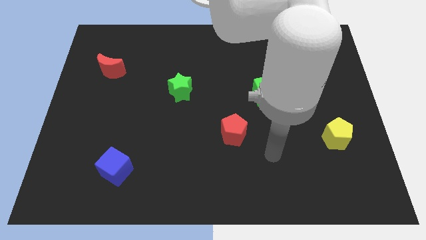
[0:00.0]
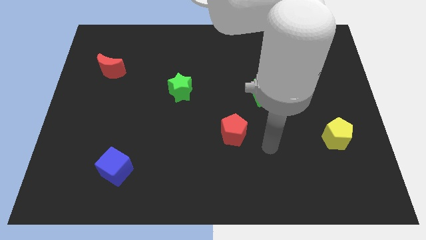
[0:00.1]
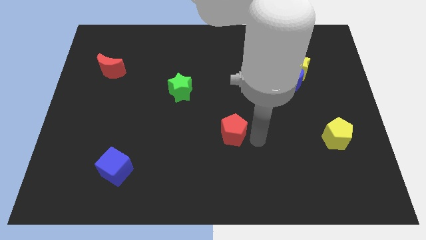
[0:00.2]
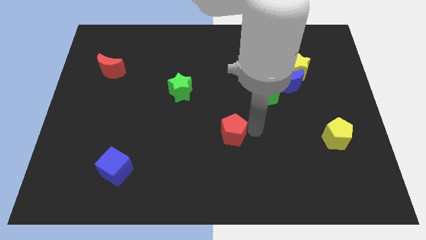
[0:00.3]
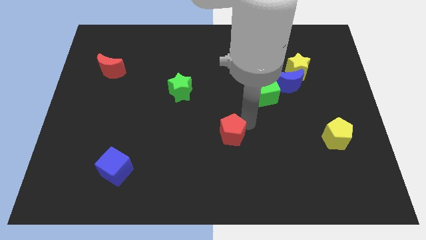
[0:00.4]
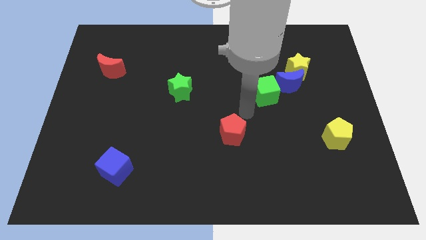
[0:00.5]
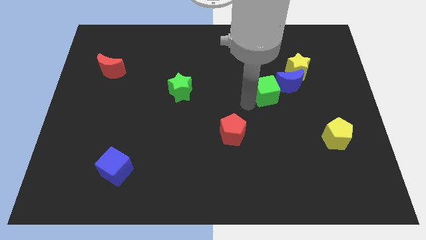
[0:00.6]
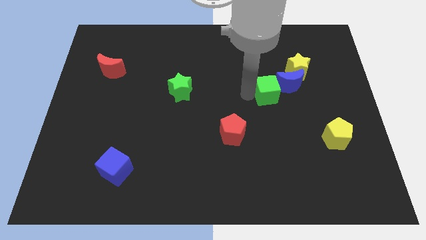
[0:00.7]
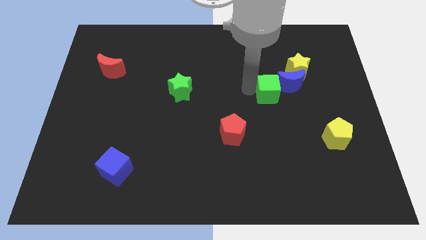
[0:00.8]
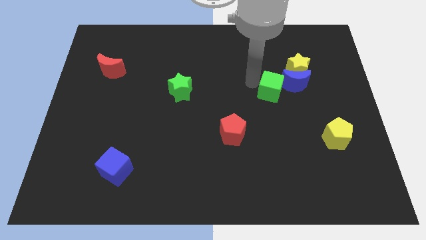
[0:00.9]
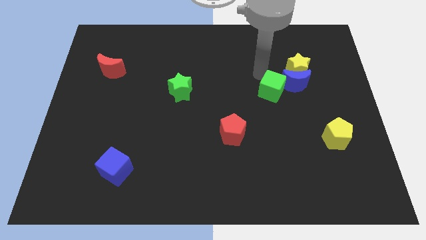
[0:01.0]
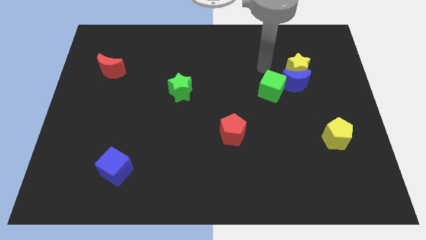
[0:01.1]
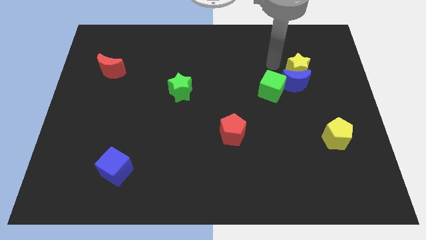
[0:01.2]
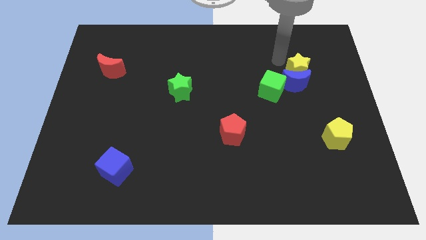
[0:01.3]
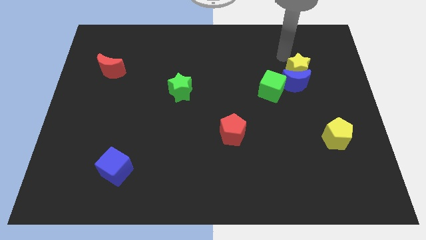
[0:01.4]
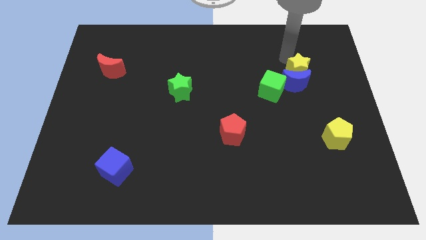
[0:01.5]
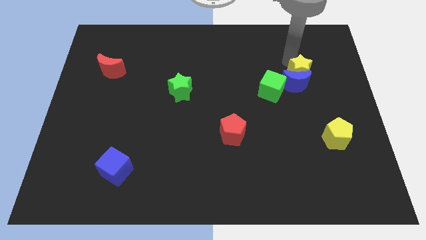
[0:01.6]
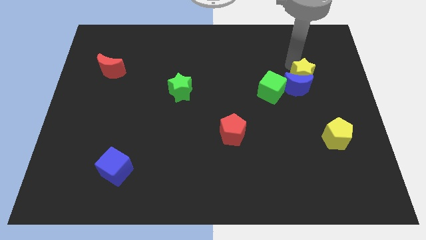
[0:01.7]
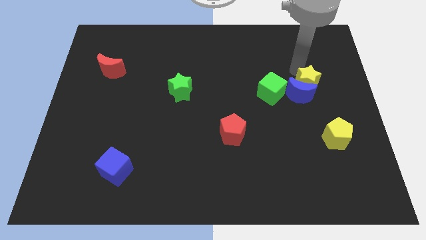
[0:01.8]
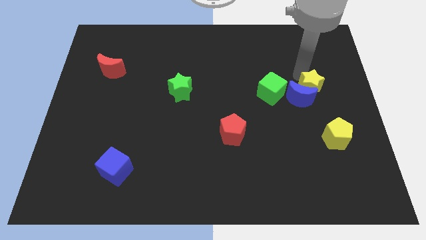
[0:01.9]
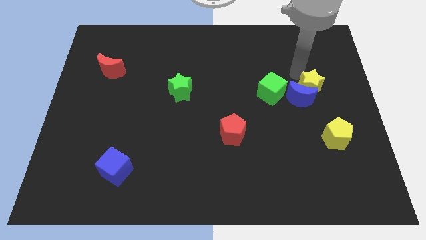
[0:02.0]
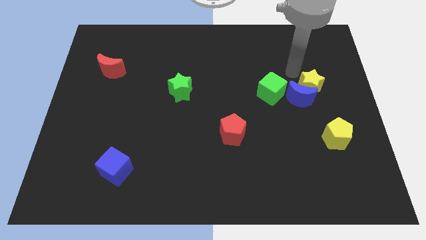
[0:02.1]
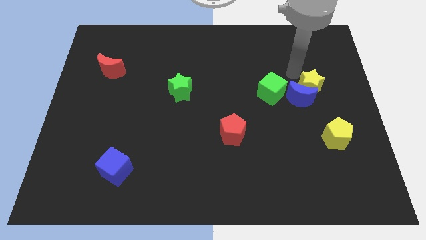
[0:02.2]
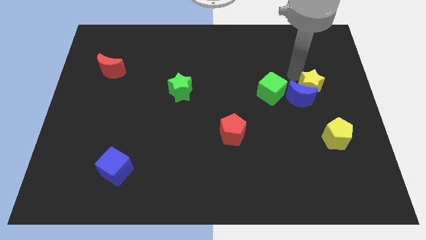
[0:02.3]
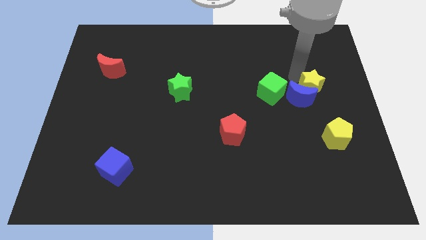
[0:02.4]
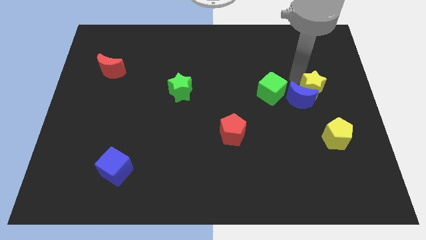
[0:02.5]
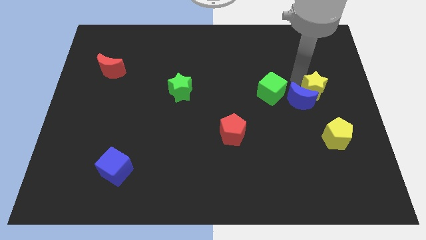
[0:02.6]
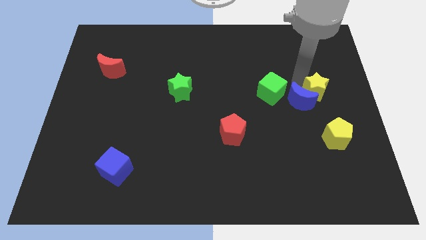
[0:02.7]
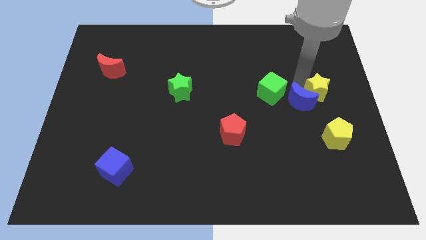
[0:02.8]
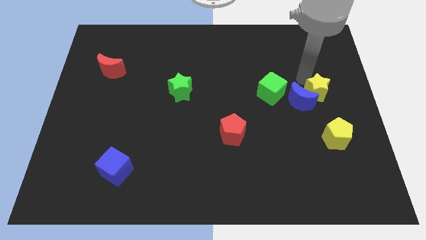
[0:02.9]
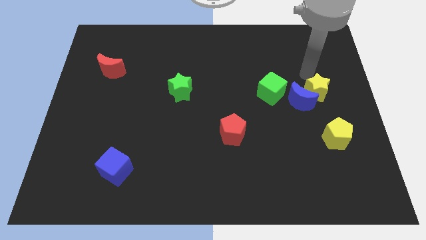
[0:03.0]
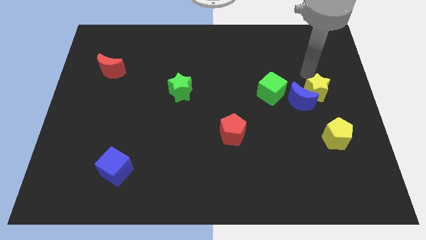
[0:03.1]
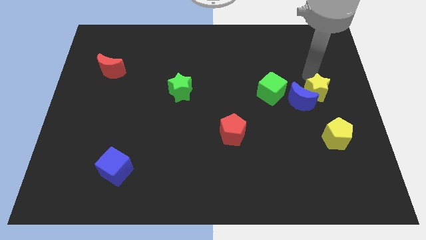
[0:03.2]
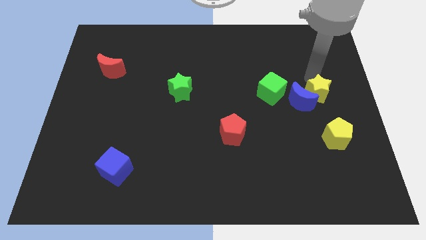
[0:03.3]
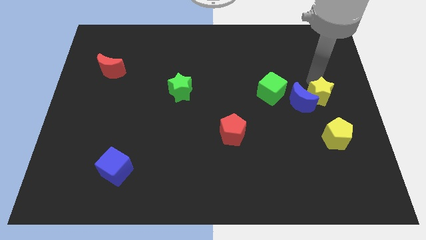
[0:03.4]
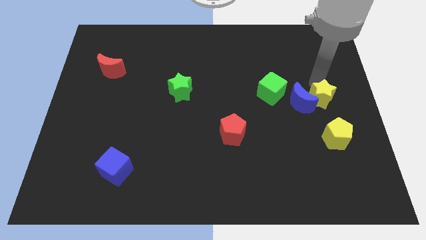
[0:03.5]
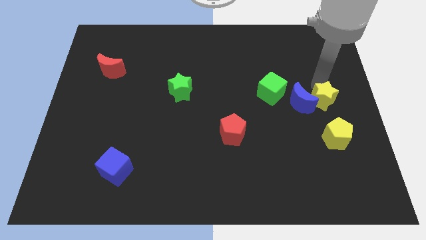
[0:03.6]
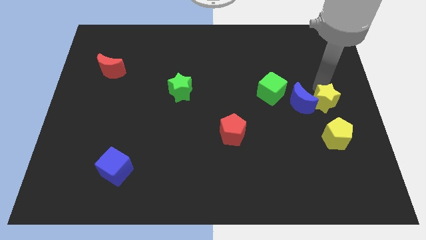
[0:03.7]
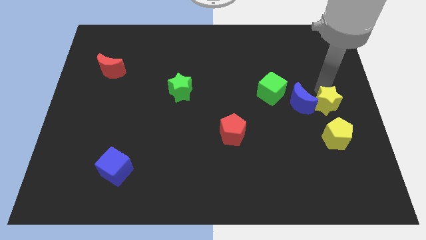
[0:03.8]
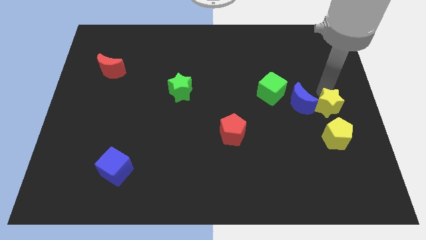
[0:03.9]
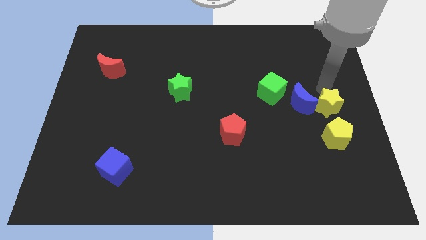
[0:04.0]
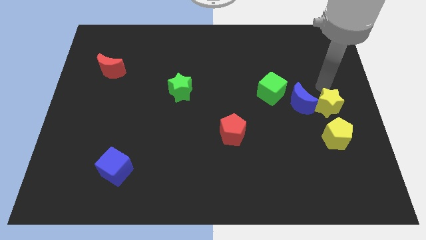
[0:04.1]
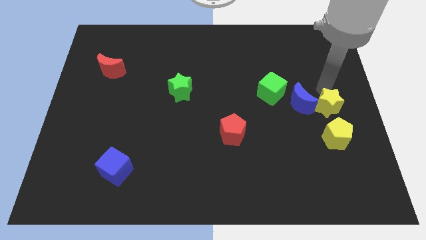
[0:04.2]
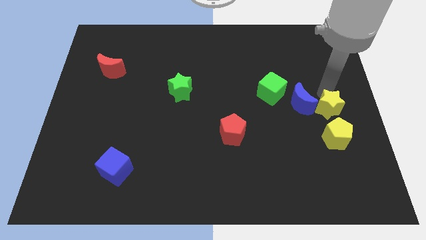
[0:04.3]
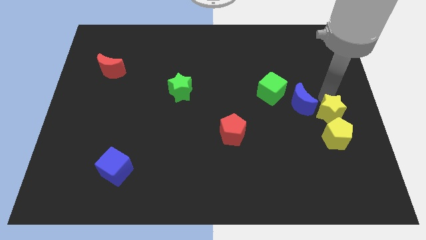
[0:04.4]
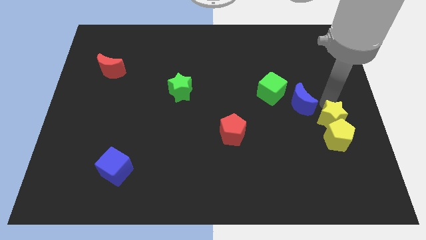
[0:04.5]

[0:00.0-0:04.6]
put the yellow star close to the yellow pentagon

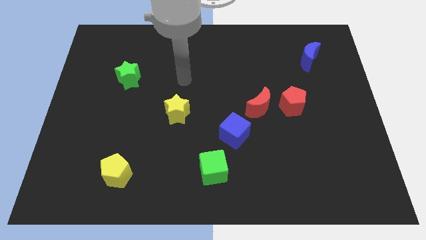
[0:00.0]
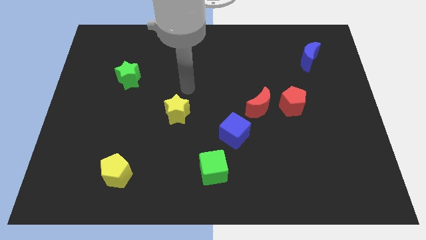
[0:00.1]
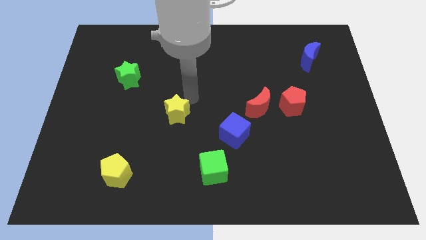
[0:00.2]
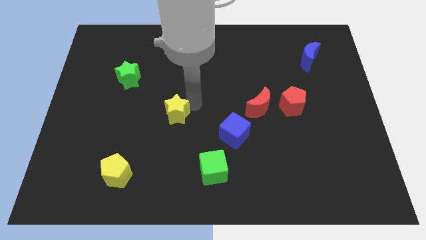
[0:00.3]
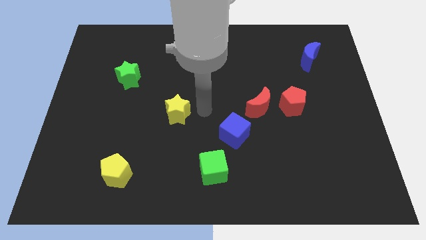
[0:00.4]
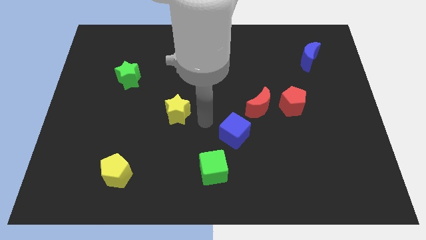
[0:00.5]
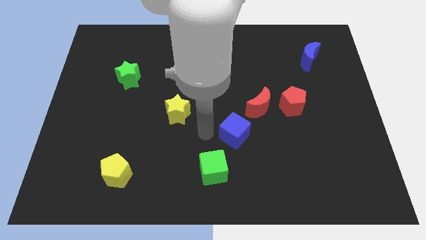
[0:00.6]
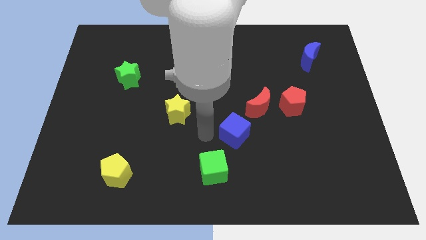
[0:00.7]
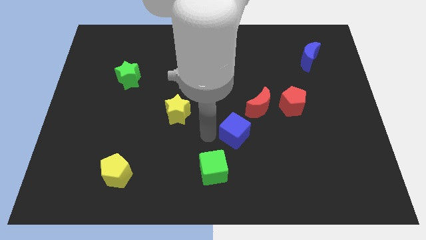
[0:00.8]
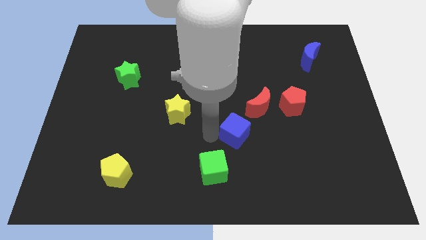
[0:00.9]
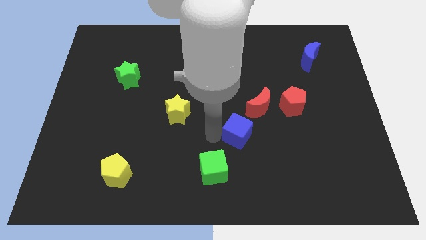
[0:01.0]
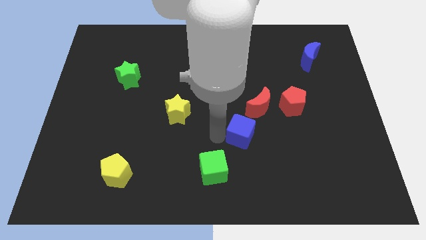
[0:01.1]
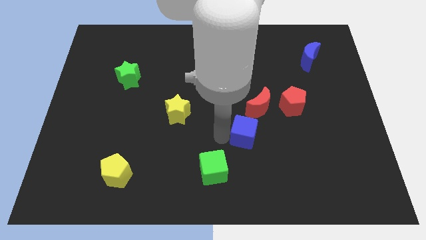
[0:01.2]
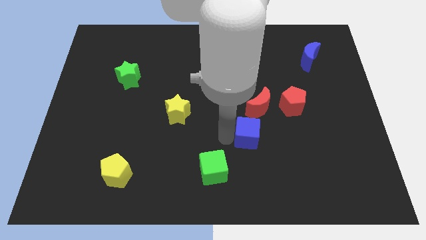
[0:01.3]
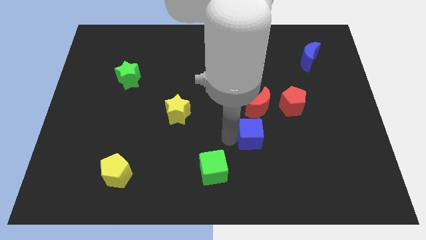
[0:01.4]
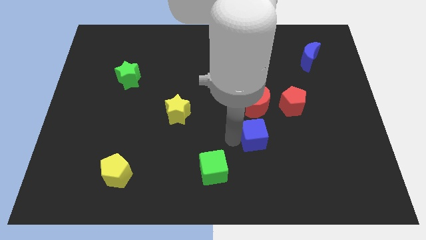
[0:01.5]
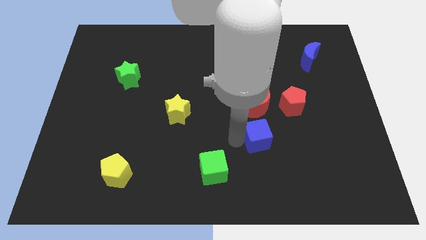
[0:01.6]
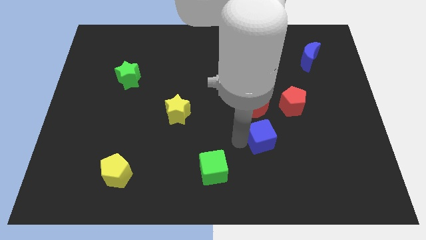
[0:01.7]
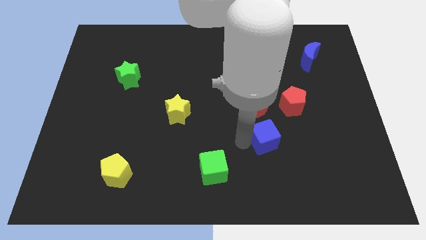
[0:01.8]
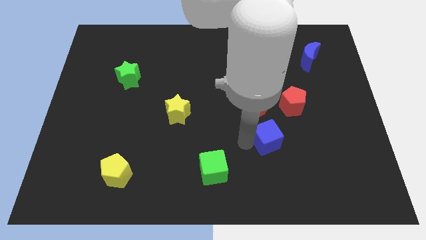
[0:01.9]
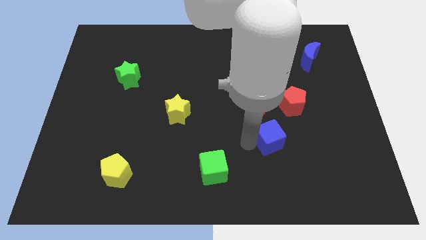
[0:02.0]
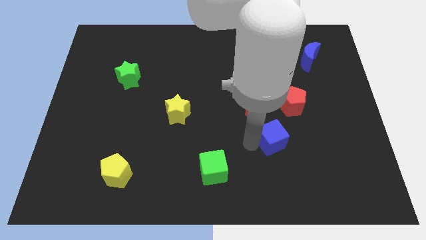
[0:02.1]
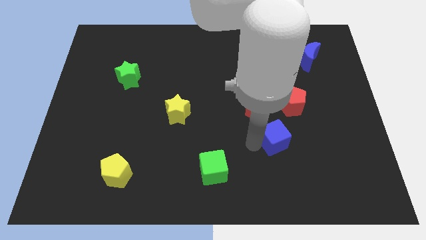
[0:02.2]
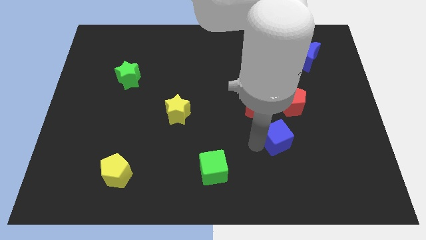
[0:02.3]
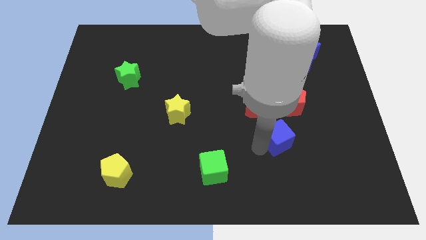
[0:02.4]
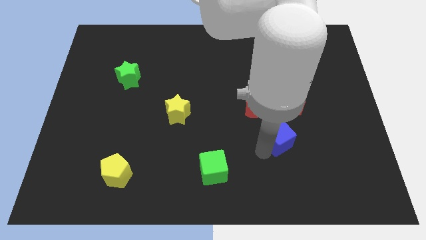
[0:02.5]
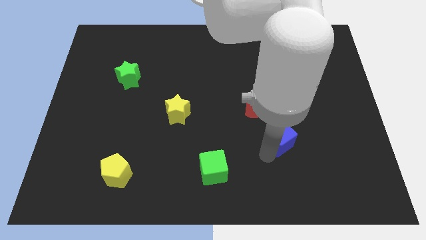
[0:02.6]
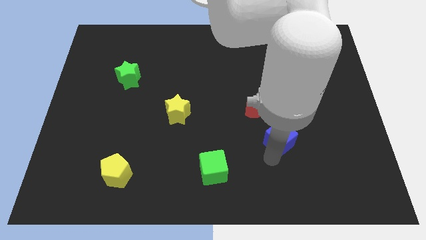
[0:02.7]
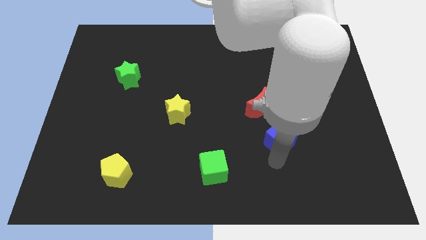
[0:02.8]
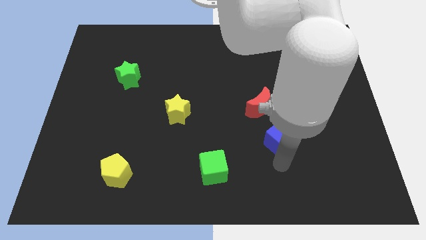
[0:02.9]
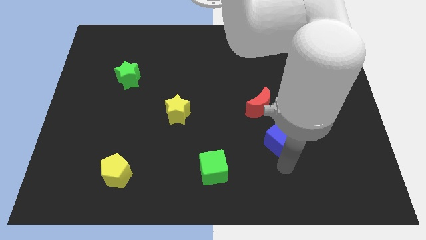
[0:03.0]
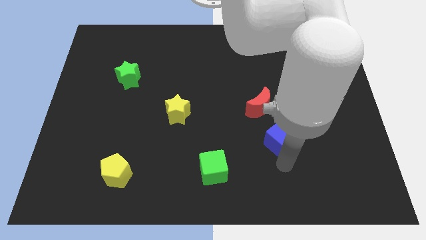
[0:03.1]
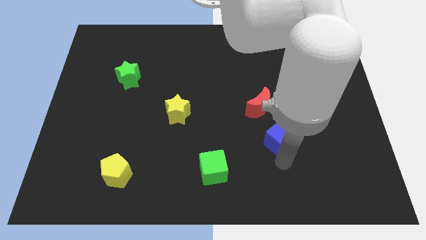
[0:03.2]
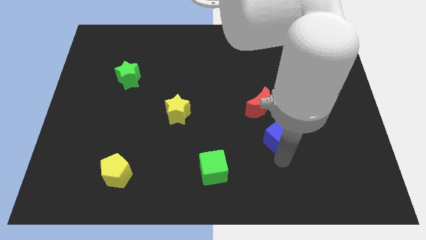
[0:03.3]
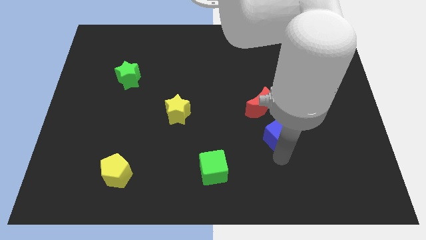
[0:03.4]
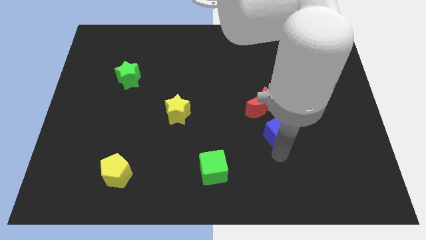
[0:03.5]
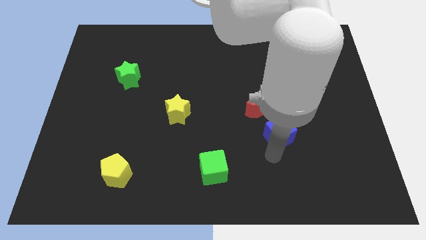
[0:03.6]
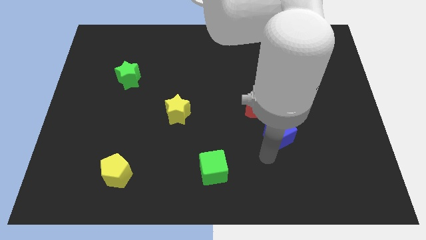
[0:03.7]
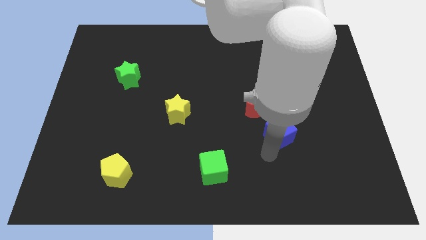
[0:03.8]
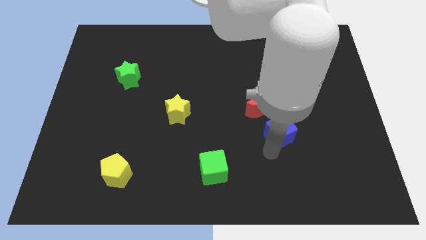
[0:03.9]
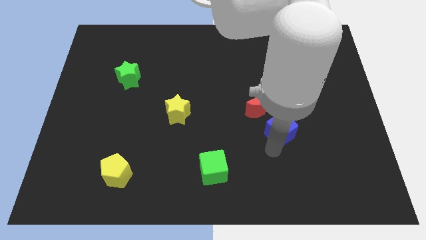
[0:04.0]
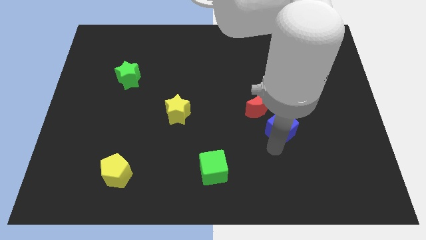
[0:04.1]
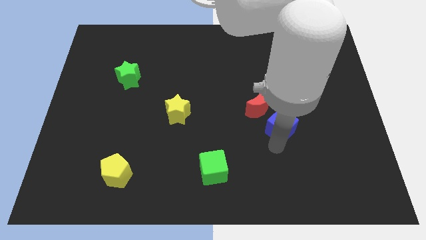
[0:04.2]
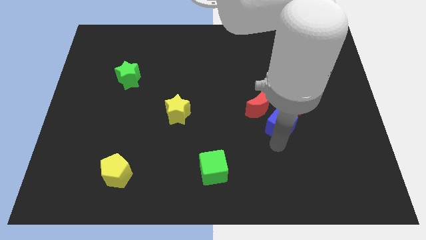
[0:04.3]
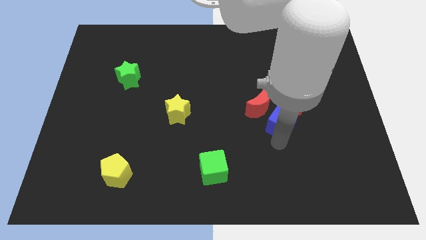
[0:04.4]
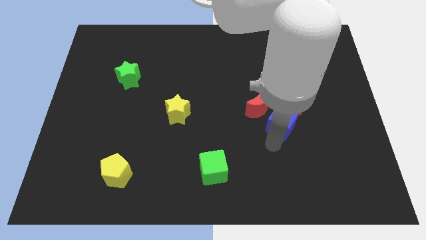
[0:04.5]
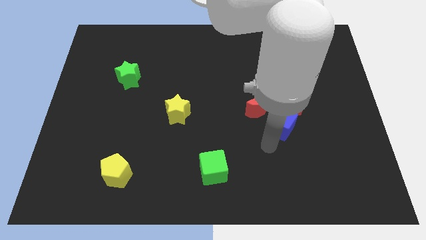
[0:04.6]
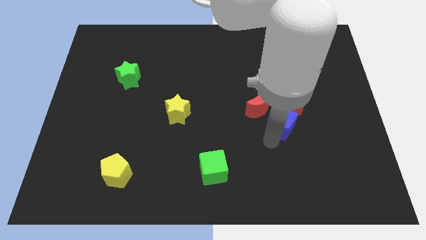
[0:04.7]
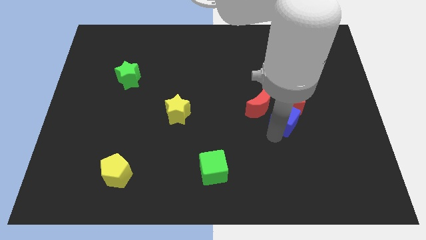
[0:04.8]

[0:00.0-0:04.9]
slide the blue cube close to the red pentagon
